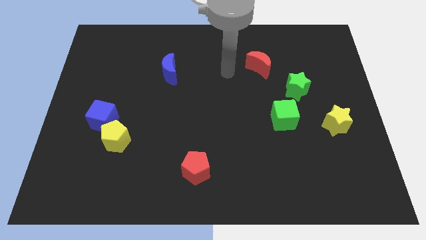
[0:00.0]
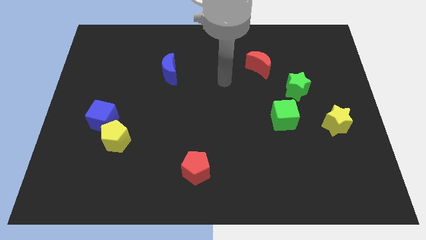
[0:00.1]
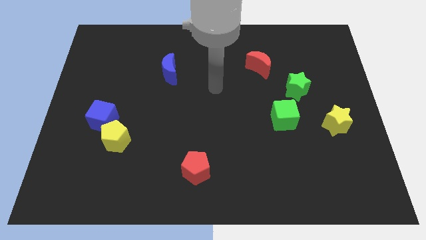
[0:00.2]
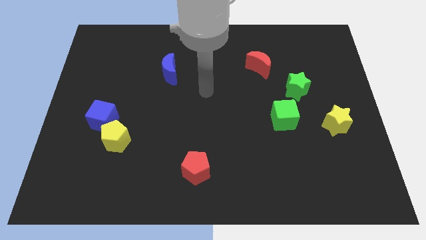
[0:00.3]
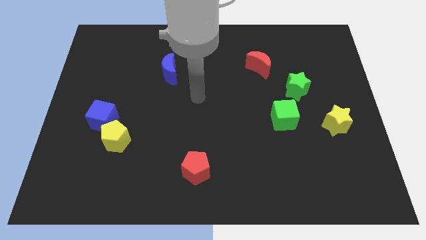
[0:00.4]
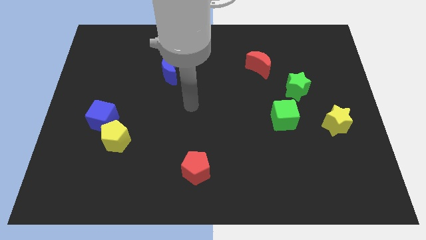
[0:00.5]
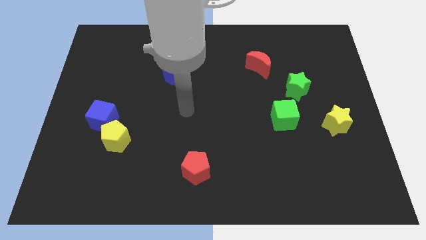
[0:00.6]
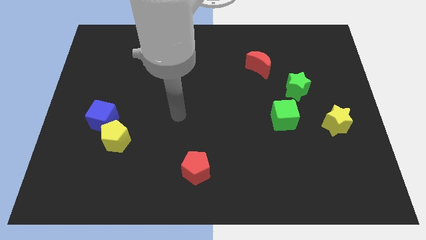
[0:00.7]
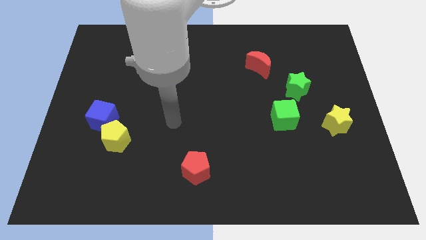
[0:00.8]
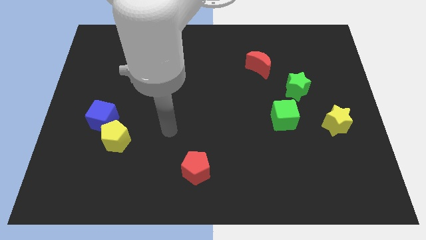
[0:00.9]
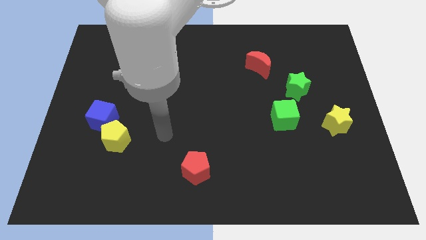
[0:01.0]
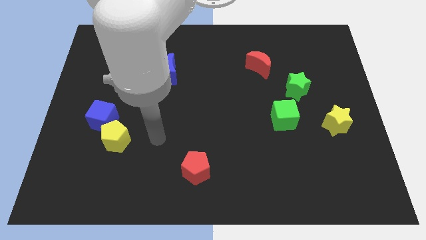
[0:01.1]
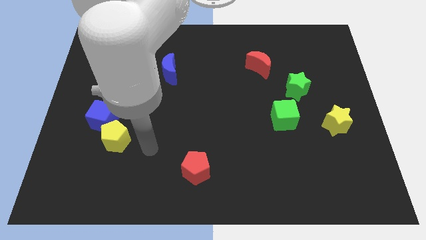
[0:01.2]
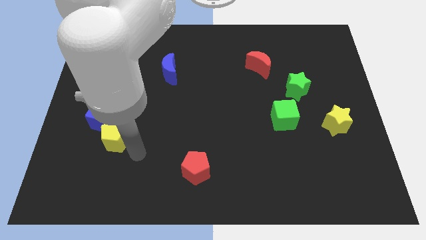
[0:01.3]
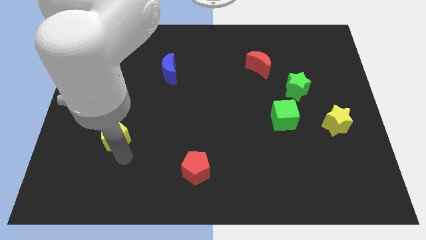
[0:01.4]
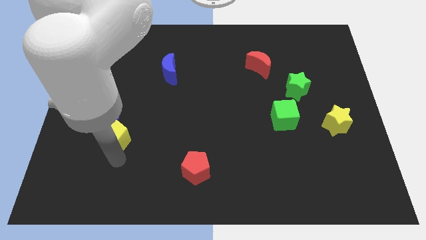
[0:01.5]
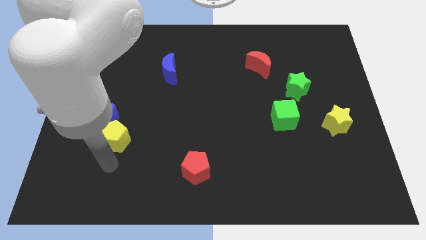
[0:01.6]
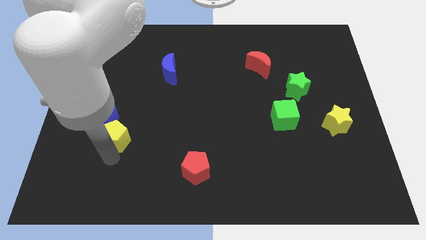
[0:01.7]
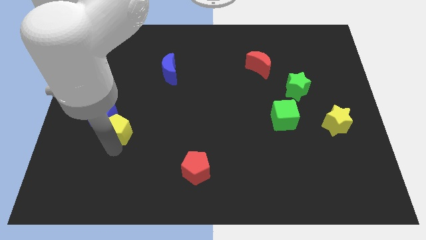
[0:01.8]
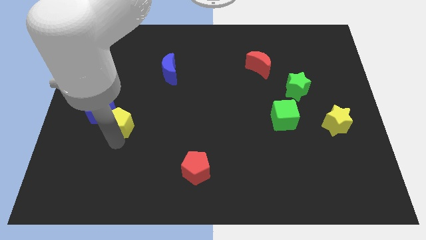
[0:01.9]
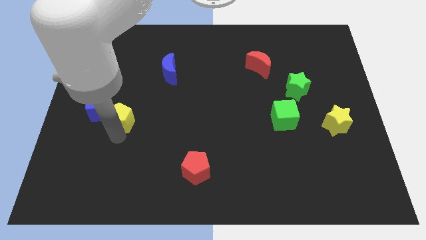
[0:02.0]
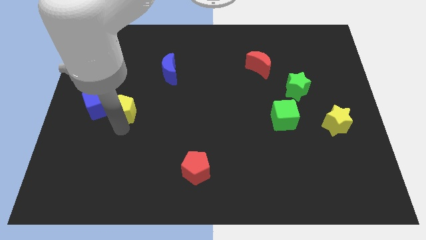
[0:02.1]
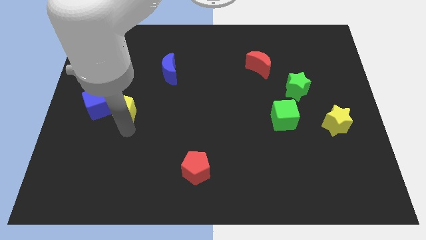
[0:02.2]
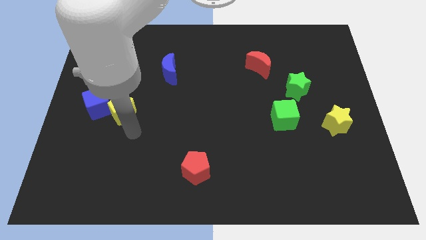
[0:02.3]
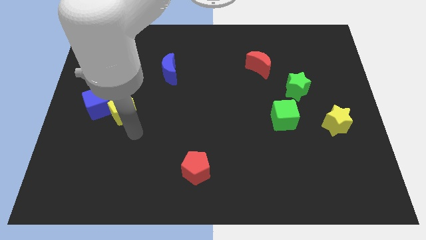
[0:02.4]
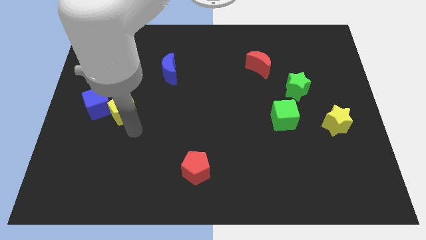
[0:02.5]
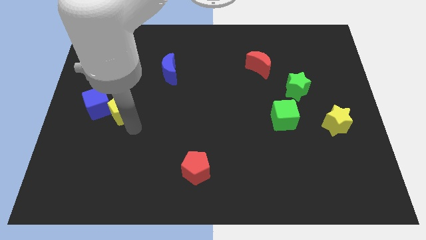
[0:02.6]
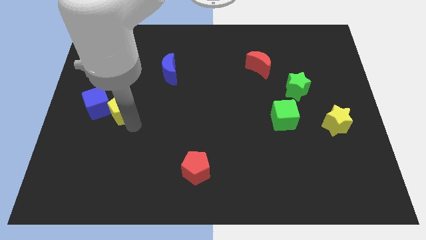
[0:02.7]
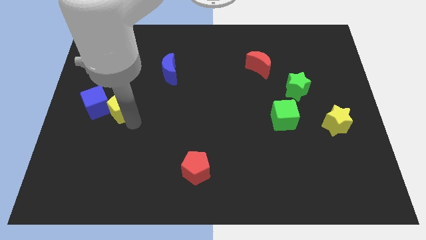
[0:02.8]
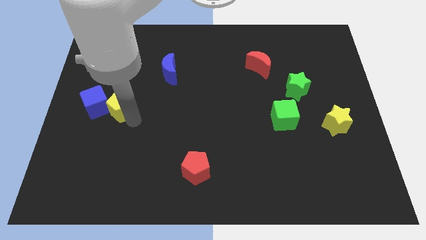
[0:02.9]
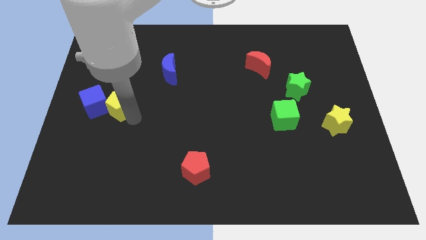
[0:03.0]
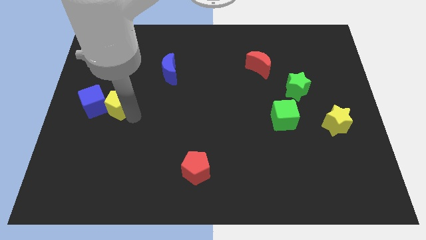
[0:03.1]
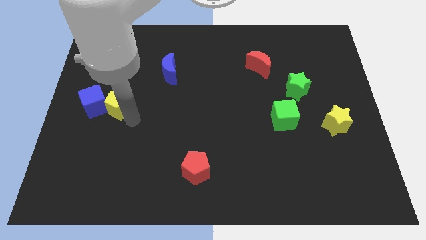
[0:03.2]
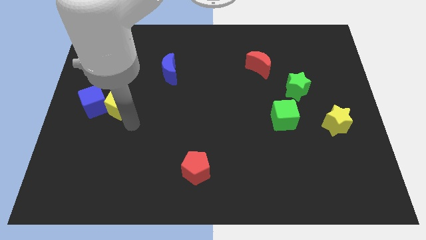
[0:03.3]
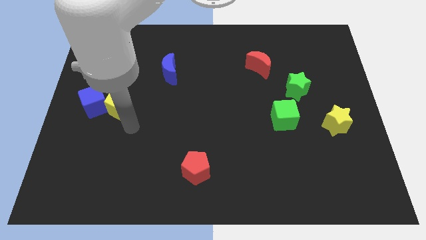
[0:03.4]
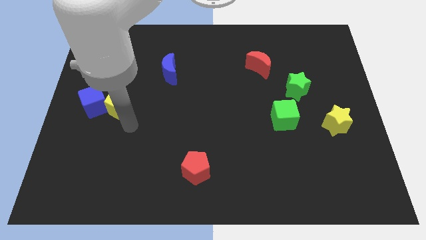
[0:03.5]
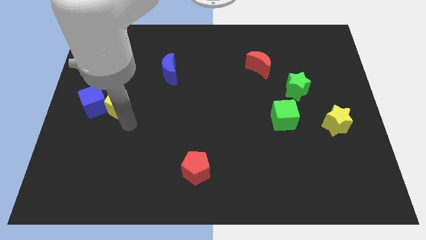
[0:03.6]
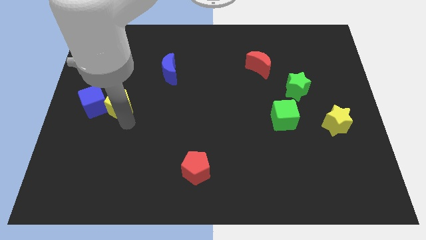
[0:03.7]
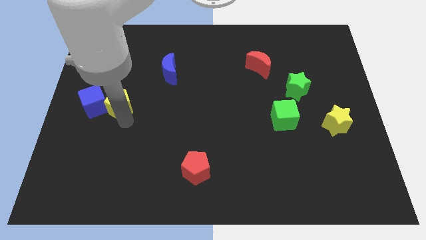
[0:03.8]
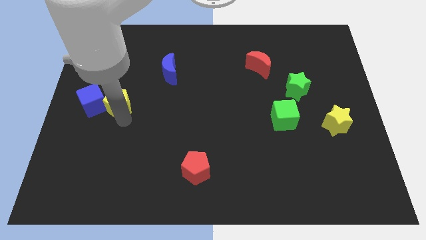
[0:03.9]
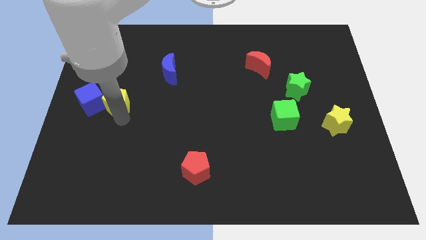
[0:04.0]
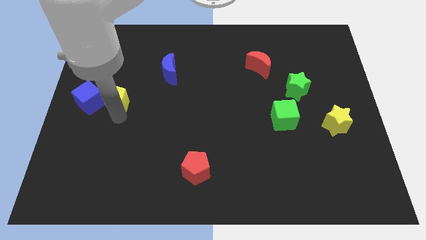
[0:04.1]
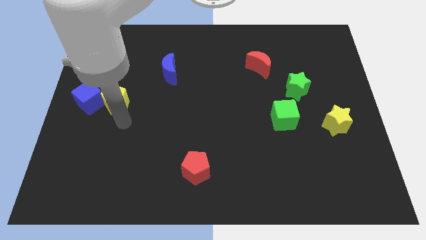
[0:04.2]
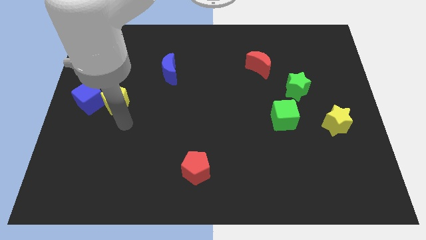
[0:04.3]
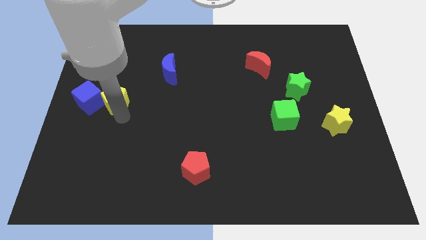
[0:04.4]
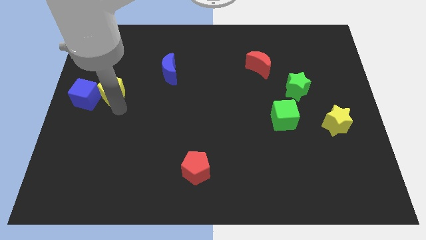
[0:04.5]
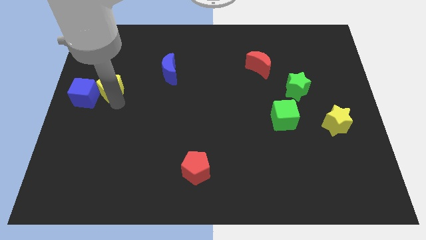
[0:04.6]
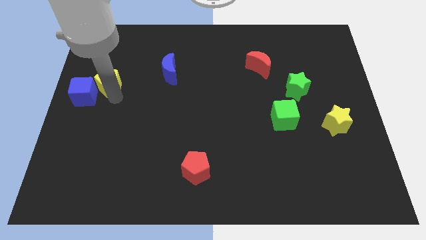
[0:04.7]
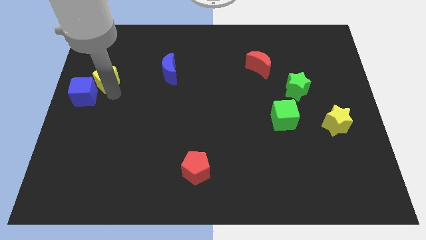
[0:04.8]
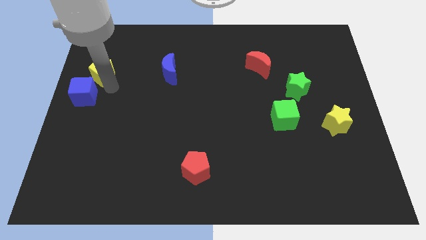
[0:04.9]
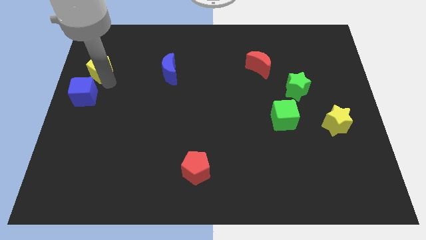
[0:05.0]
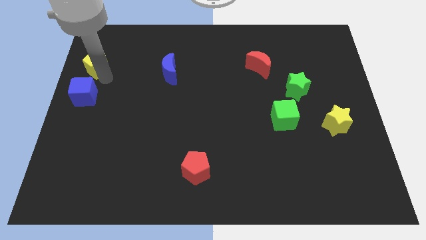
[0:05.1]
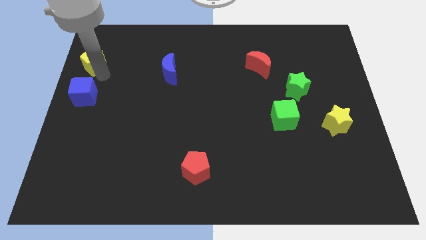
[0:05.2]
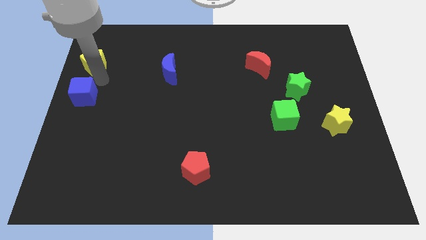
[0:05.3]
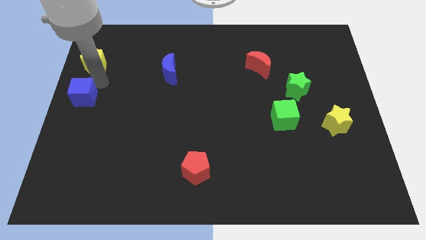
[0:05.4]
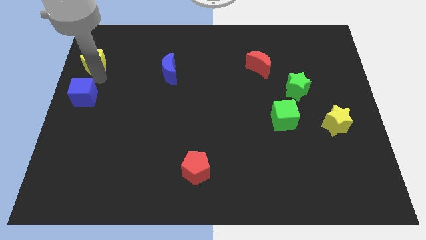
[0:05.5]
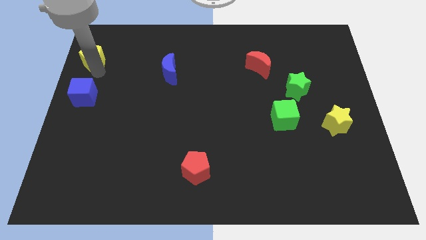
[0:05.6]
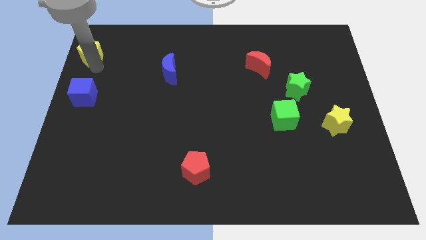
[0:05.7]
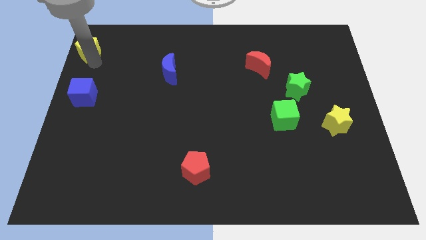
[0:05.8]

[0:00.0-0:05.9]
move the yellow pentagon to the top left

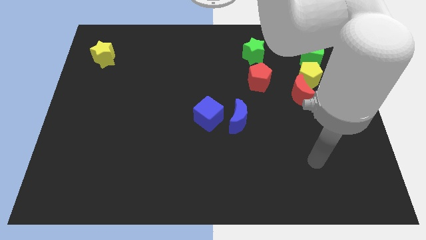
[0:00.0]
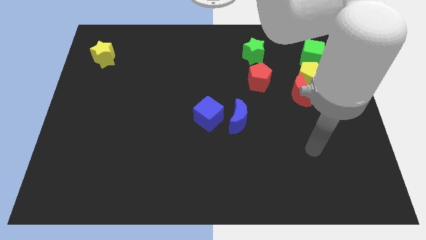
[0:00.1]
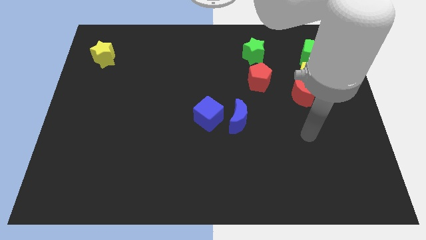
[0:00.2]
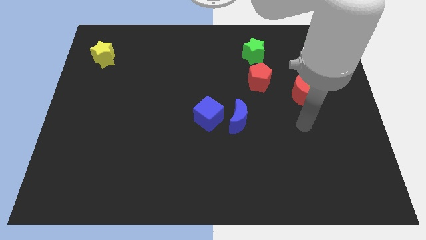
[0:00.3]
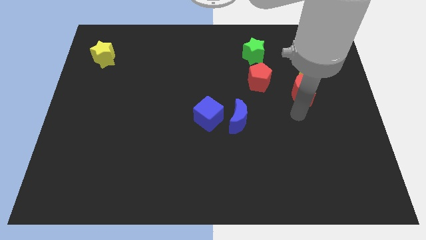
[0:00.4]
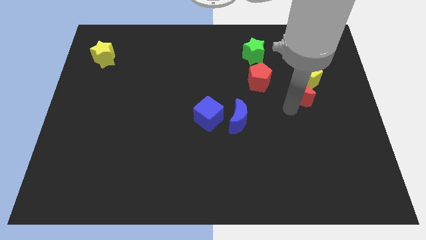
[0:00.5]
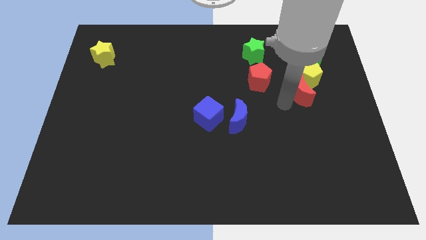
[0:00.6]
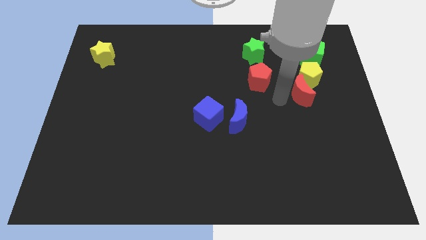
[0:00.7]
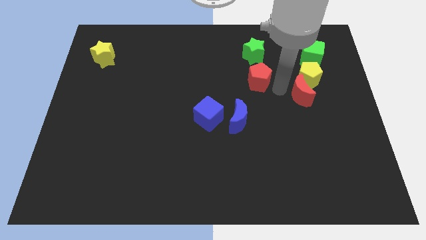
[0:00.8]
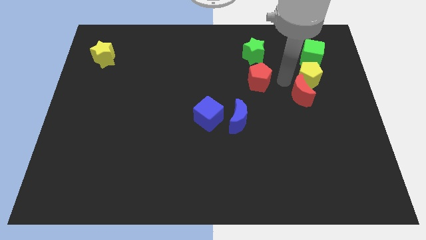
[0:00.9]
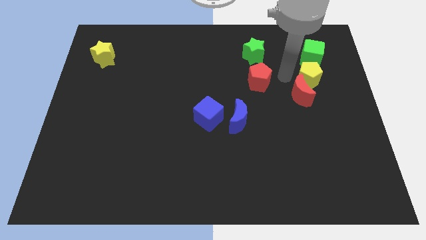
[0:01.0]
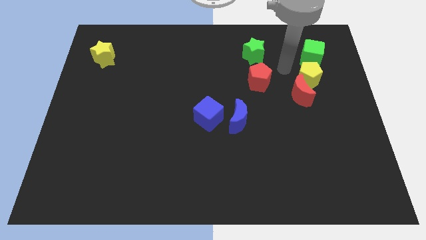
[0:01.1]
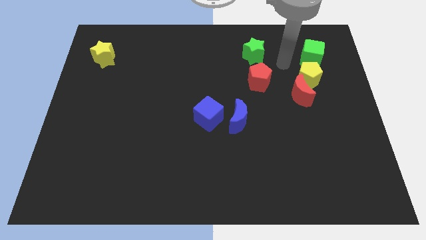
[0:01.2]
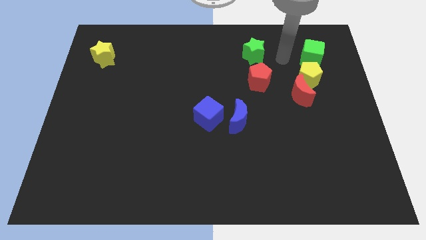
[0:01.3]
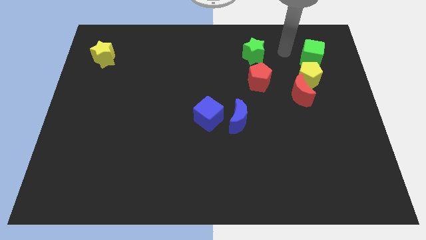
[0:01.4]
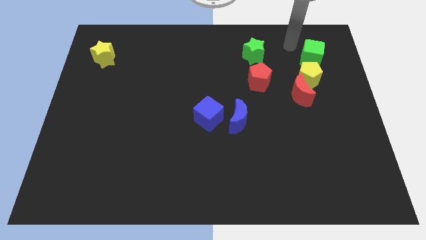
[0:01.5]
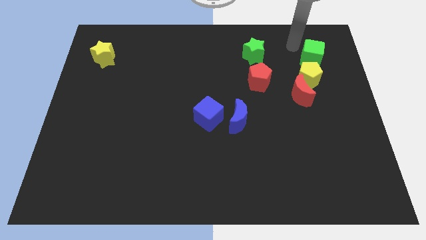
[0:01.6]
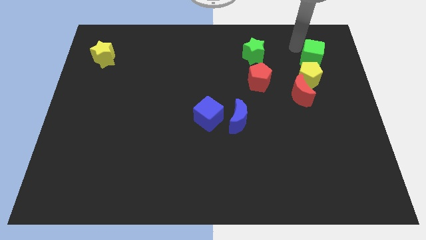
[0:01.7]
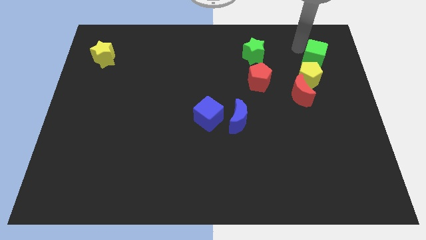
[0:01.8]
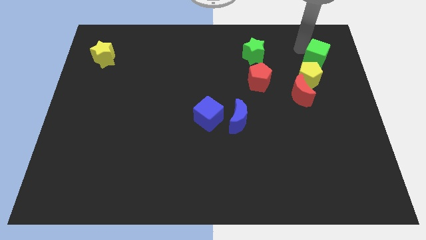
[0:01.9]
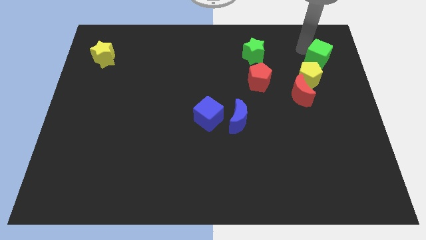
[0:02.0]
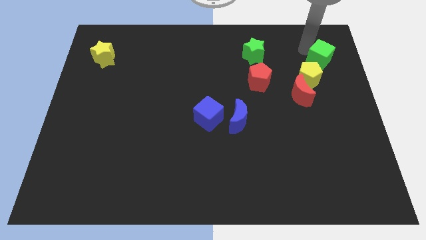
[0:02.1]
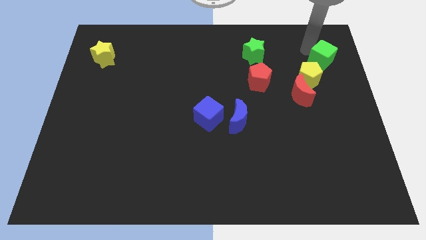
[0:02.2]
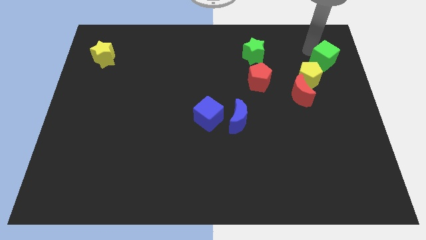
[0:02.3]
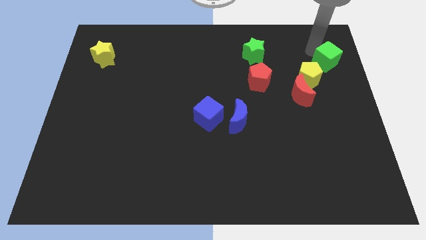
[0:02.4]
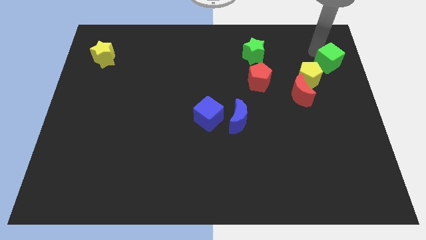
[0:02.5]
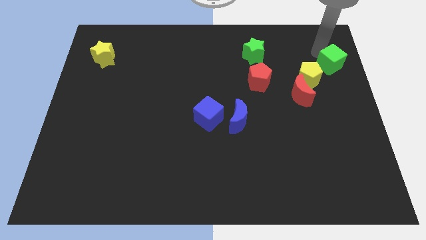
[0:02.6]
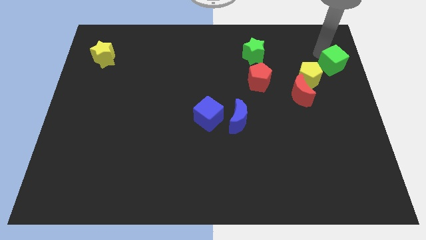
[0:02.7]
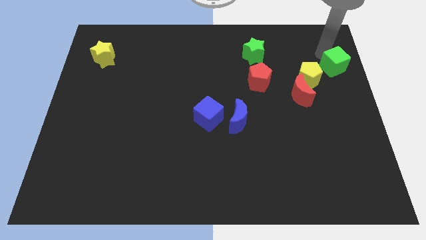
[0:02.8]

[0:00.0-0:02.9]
push the green cube to the center right
